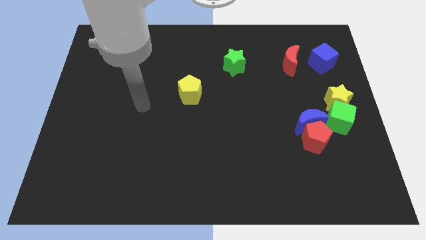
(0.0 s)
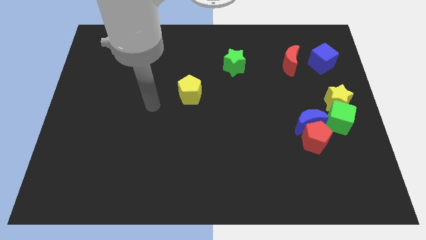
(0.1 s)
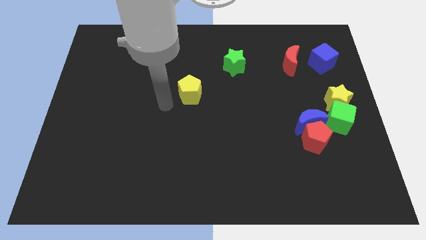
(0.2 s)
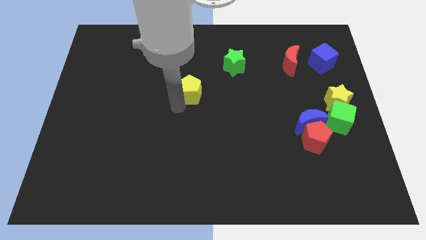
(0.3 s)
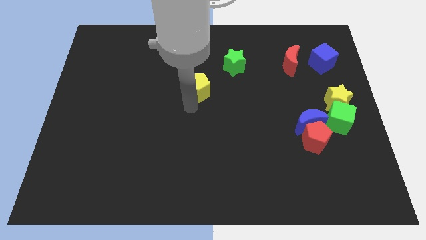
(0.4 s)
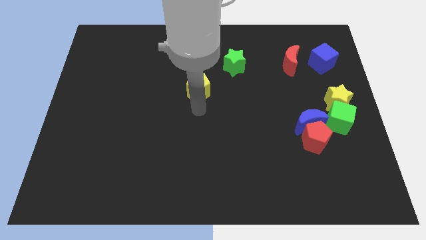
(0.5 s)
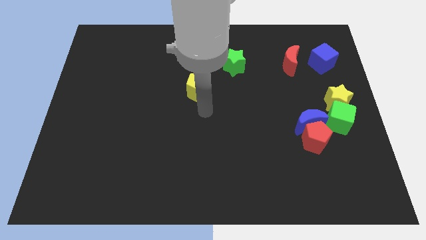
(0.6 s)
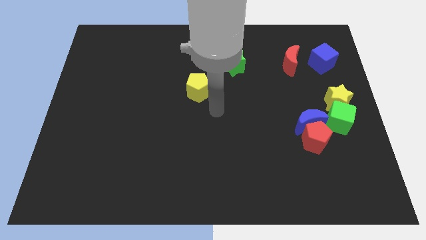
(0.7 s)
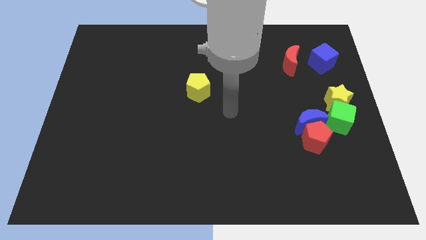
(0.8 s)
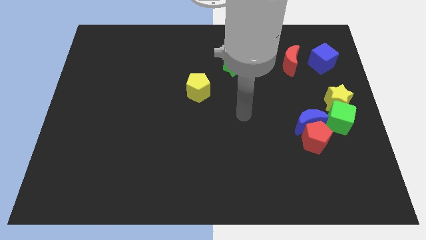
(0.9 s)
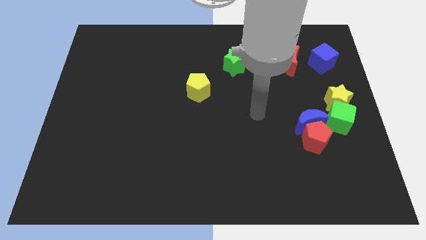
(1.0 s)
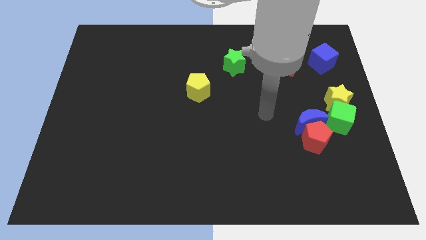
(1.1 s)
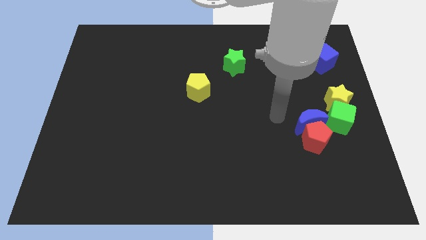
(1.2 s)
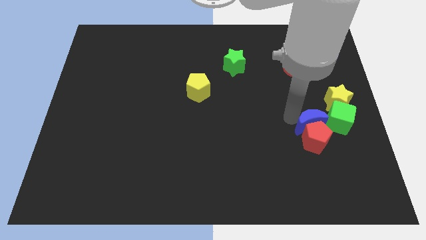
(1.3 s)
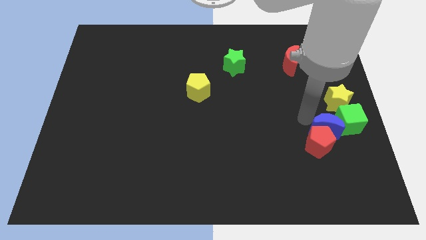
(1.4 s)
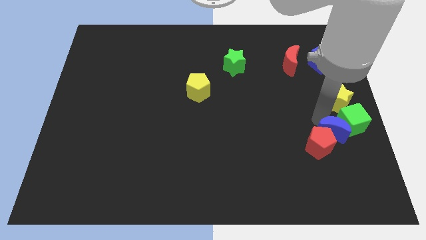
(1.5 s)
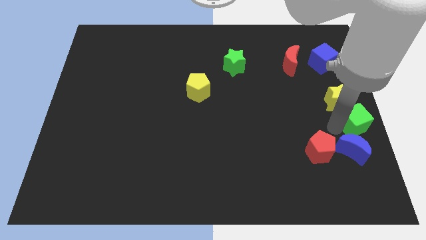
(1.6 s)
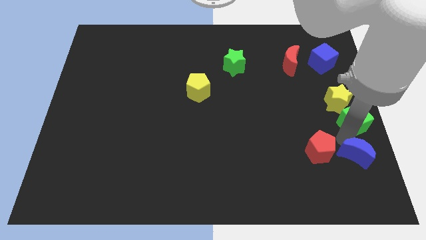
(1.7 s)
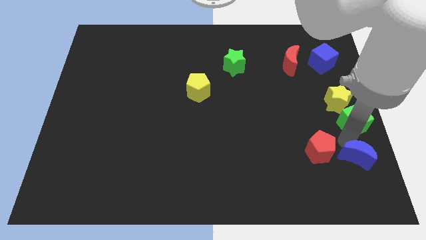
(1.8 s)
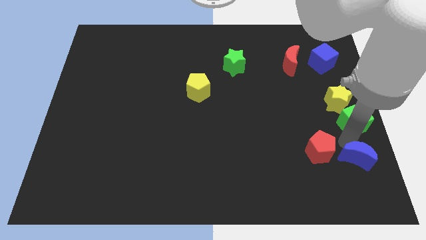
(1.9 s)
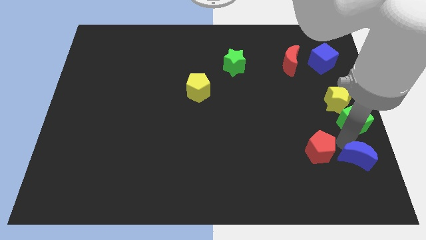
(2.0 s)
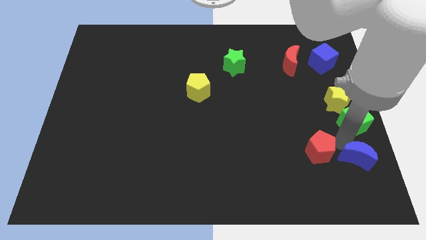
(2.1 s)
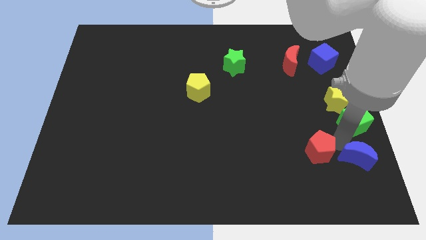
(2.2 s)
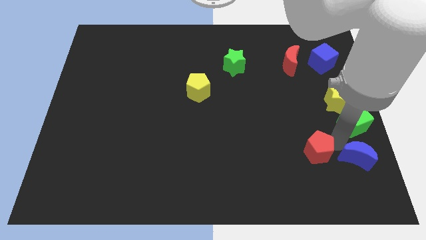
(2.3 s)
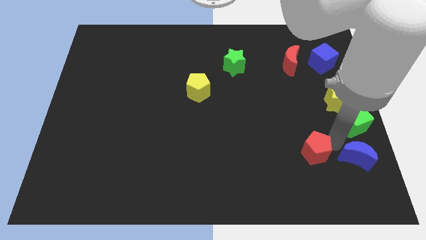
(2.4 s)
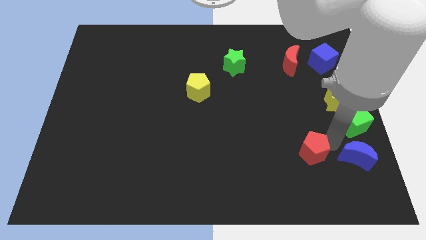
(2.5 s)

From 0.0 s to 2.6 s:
separate the red pentagon from the blue moon and green cube

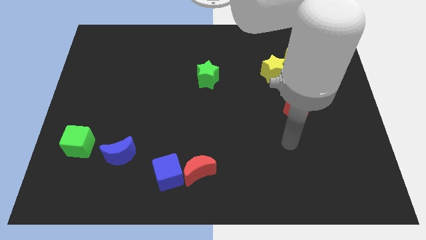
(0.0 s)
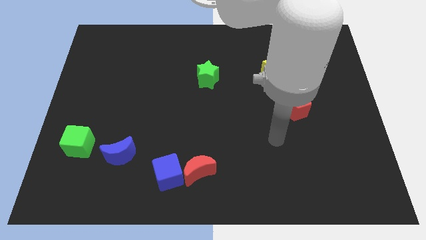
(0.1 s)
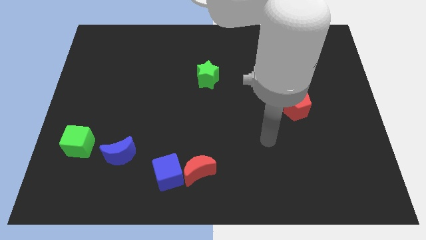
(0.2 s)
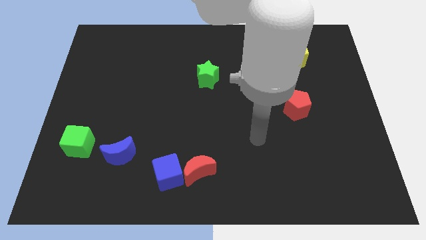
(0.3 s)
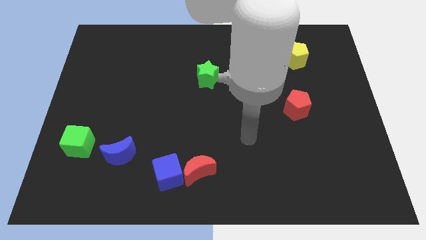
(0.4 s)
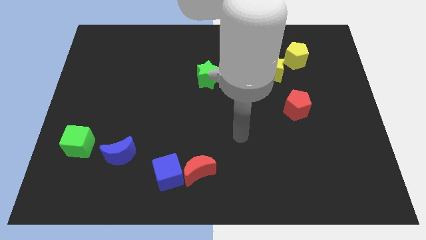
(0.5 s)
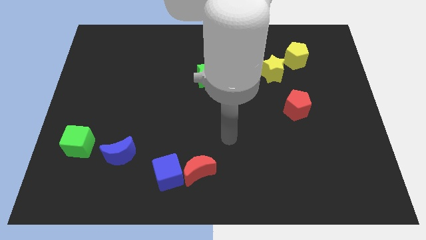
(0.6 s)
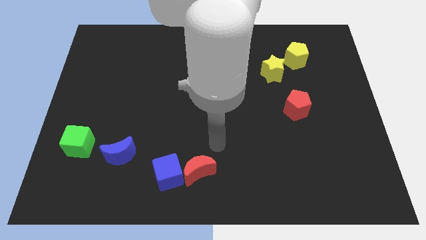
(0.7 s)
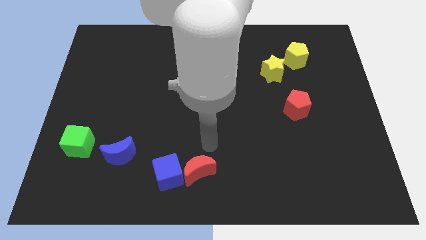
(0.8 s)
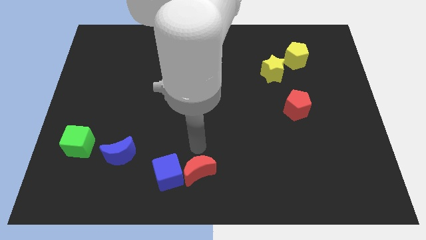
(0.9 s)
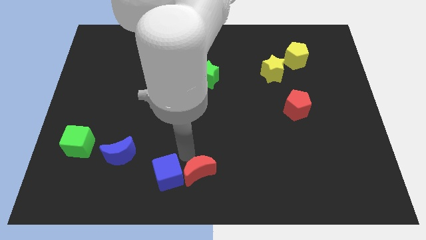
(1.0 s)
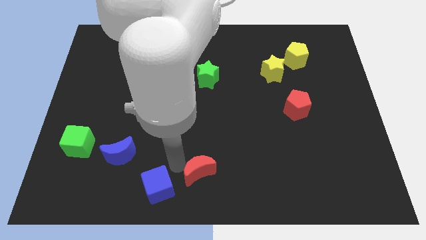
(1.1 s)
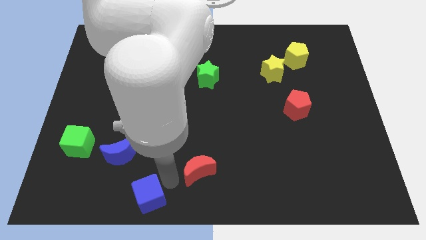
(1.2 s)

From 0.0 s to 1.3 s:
pull the red moon apart from the blue cube

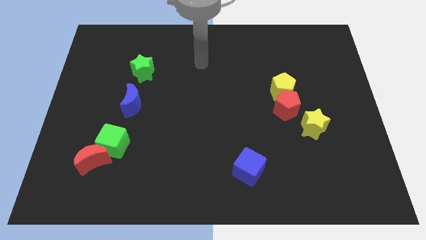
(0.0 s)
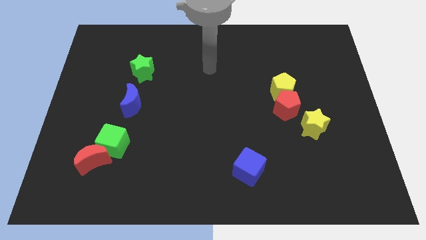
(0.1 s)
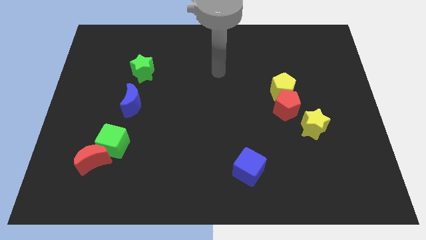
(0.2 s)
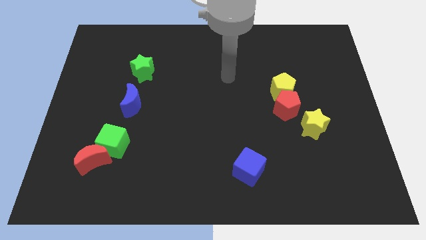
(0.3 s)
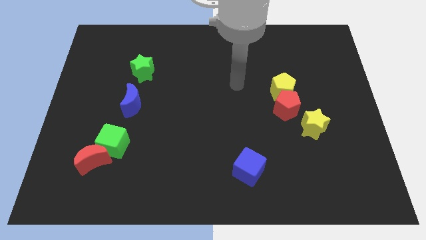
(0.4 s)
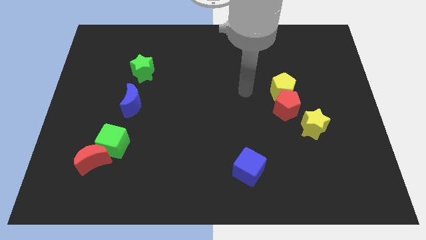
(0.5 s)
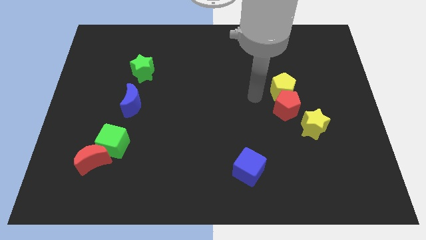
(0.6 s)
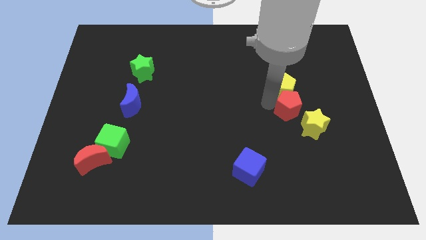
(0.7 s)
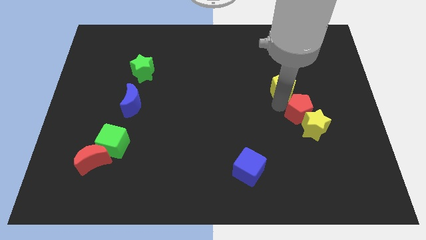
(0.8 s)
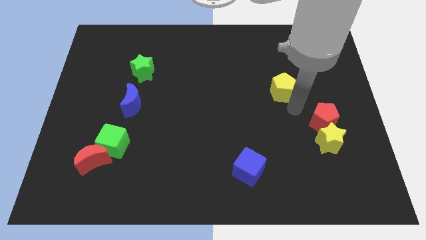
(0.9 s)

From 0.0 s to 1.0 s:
pull the yellow pentagon apart from the red pentagon

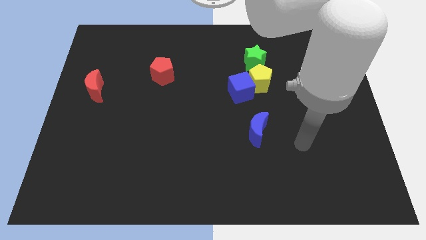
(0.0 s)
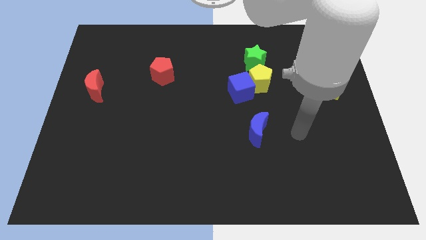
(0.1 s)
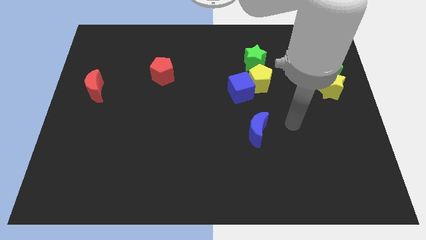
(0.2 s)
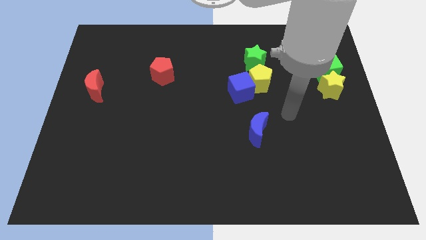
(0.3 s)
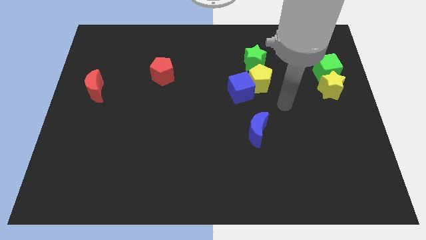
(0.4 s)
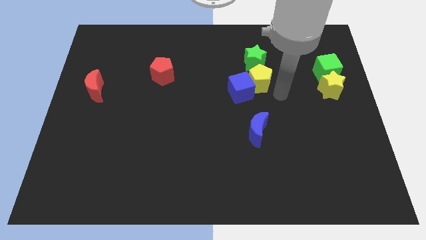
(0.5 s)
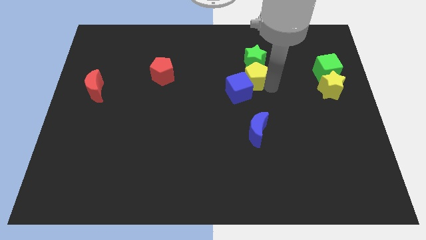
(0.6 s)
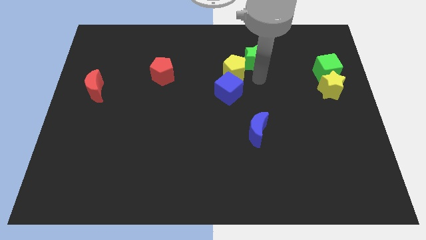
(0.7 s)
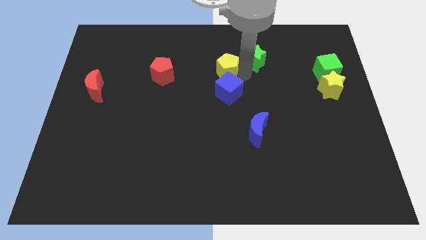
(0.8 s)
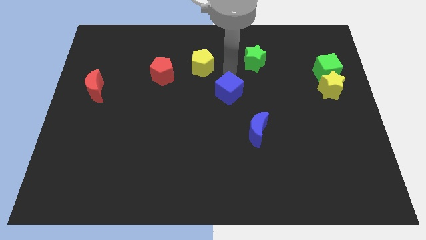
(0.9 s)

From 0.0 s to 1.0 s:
move the blue cube away from the yellow pentagon

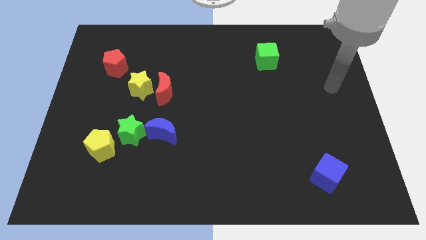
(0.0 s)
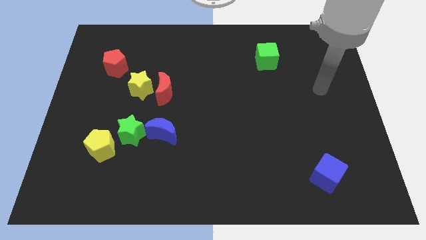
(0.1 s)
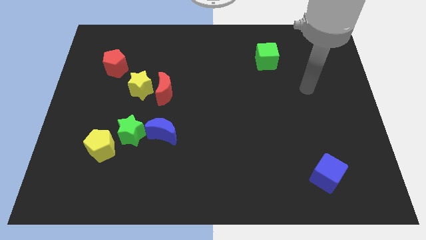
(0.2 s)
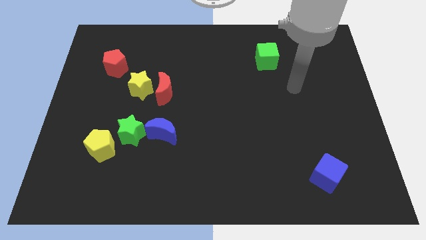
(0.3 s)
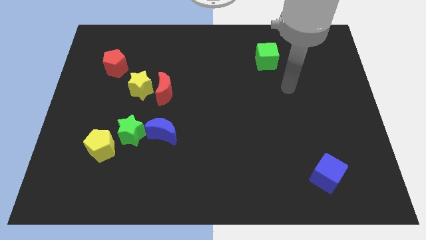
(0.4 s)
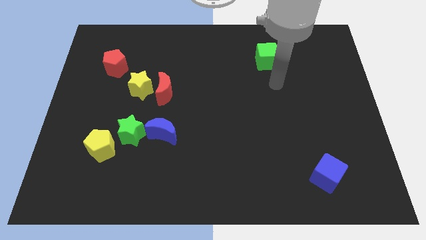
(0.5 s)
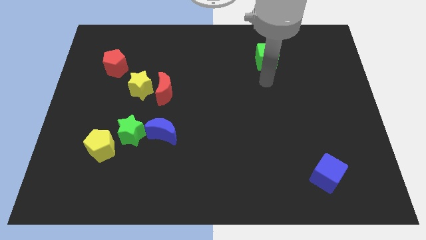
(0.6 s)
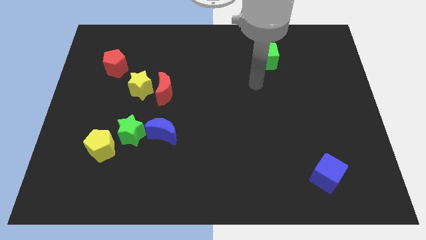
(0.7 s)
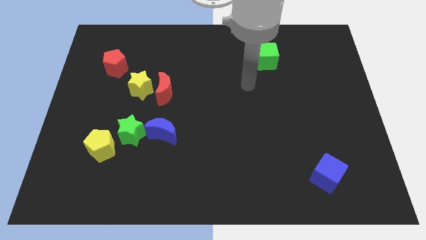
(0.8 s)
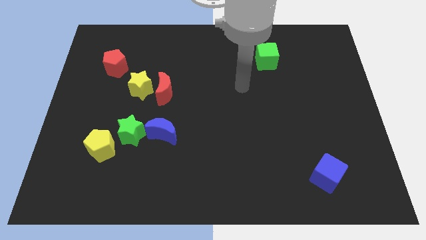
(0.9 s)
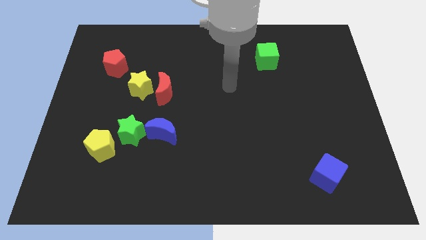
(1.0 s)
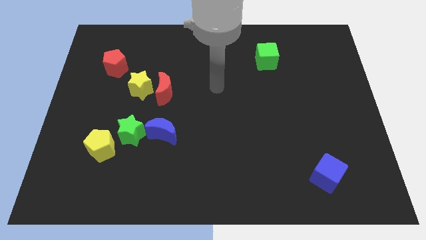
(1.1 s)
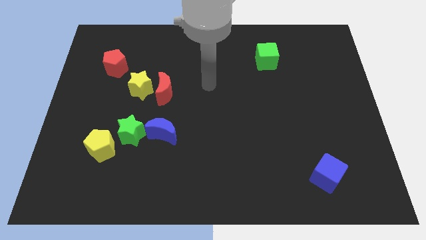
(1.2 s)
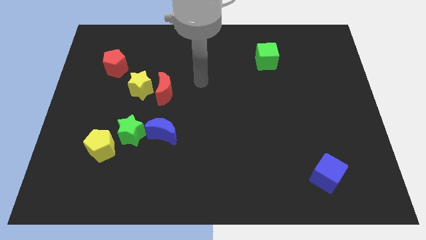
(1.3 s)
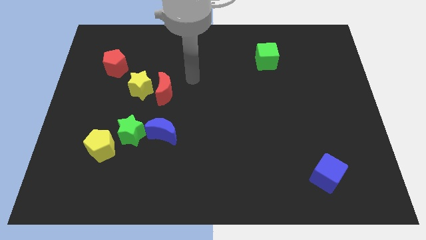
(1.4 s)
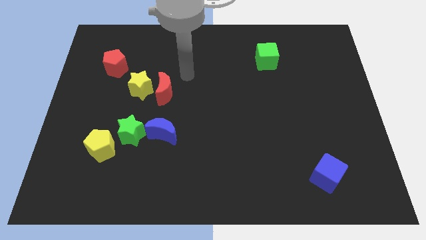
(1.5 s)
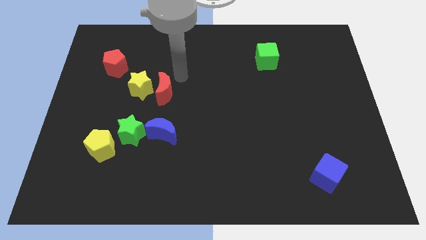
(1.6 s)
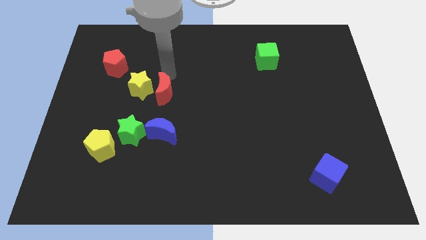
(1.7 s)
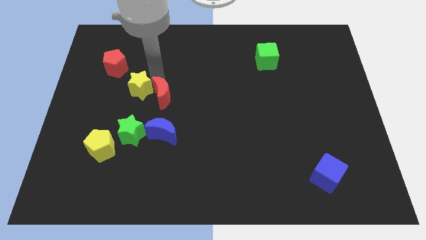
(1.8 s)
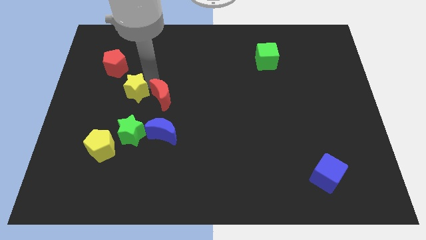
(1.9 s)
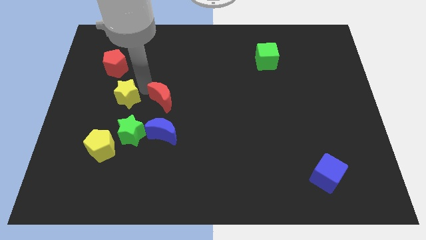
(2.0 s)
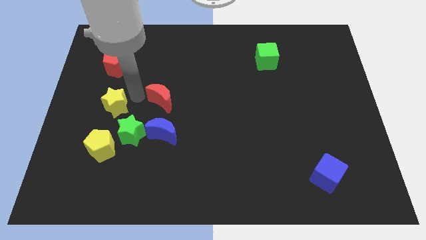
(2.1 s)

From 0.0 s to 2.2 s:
separate the red moon from the yellow star

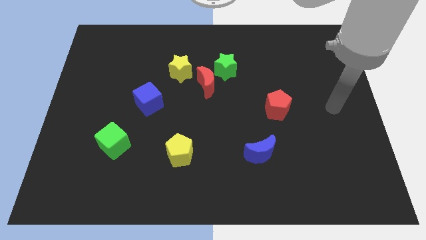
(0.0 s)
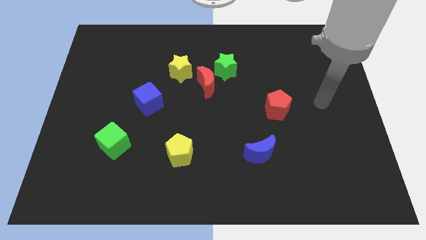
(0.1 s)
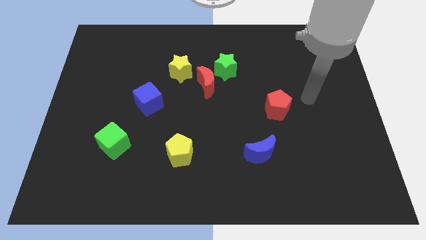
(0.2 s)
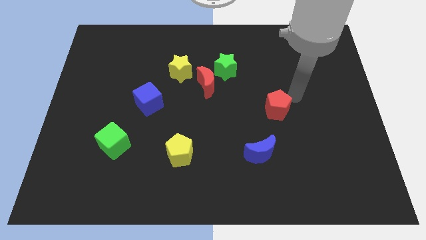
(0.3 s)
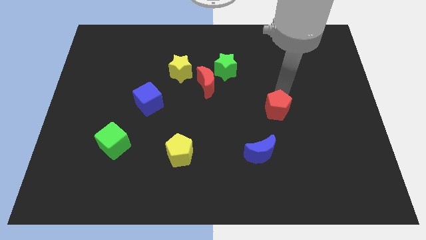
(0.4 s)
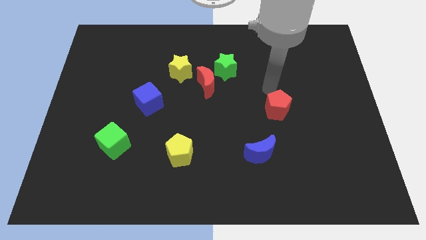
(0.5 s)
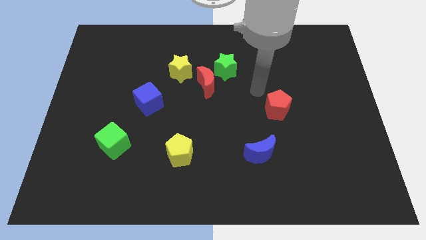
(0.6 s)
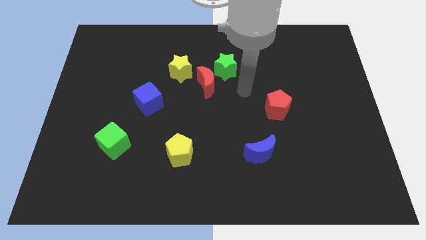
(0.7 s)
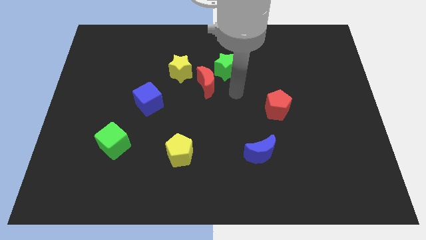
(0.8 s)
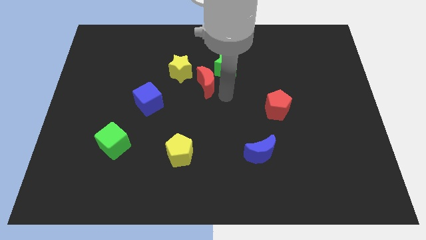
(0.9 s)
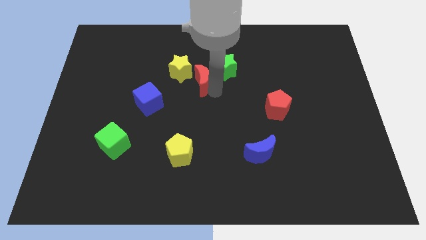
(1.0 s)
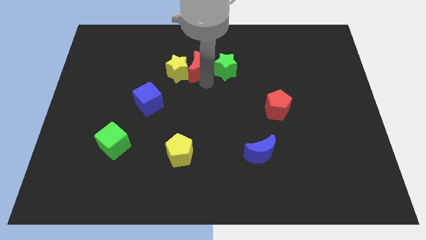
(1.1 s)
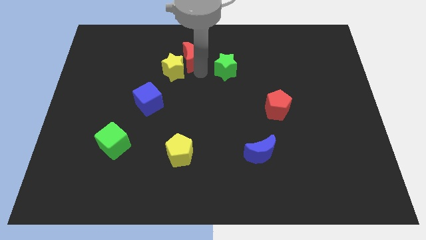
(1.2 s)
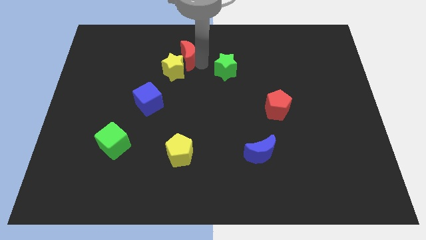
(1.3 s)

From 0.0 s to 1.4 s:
pull the green star apart from the red moon

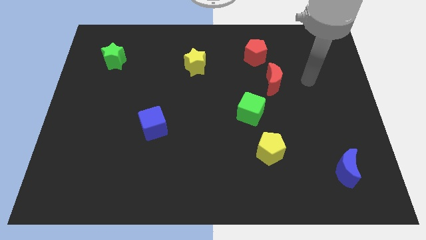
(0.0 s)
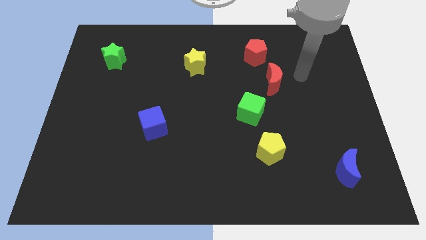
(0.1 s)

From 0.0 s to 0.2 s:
separate the red moon from the red pentagon
